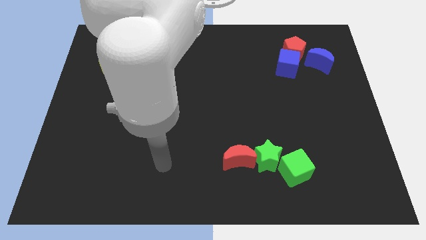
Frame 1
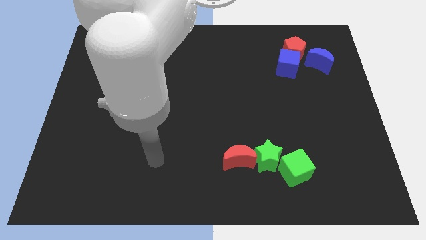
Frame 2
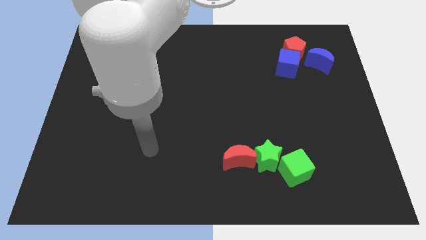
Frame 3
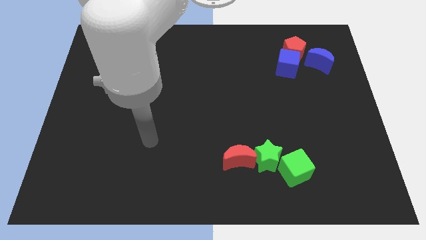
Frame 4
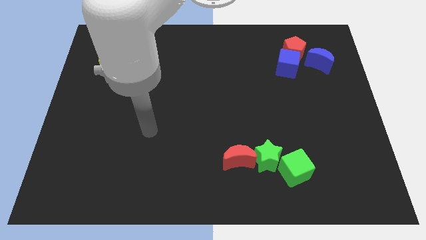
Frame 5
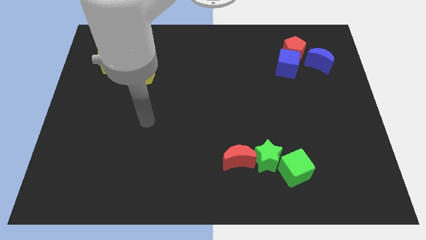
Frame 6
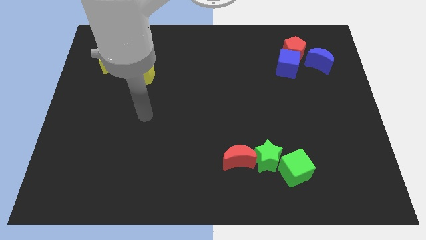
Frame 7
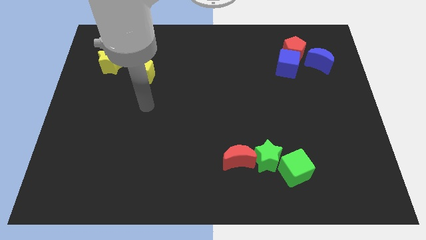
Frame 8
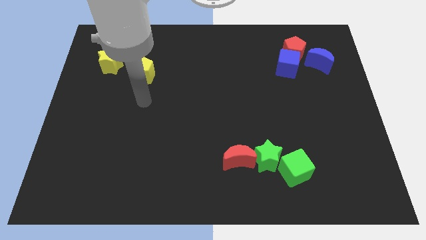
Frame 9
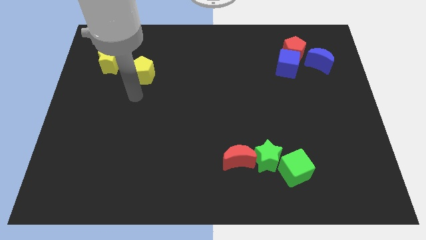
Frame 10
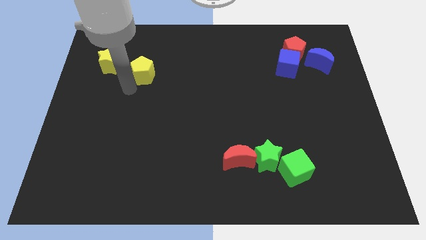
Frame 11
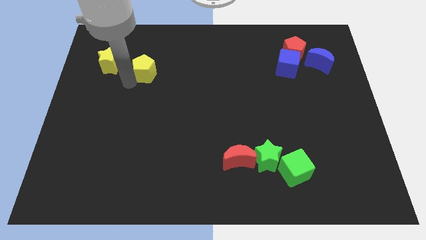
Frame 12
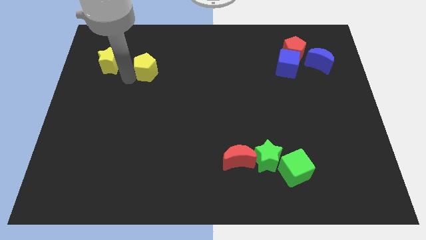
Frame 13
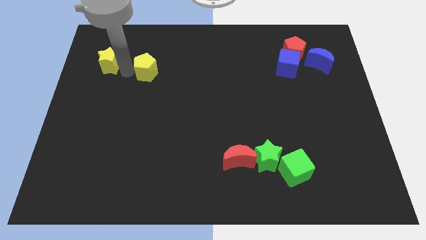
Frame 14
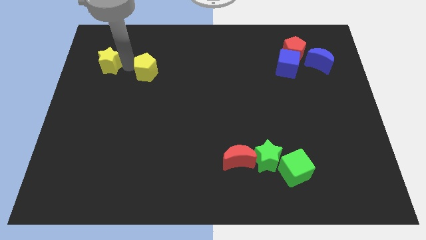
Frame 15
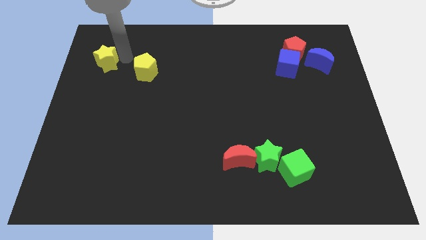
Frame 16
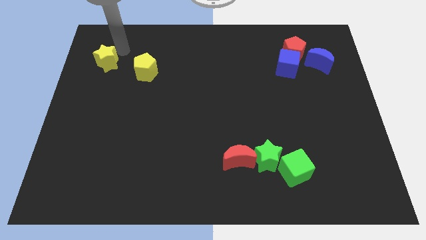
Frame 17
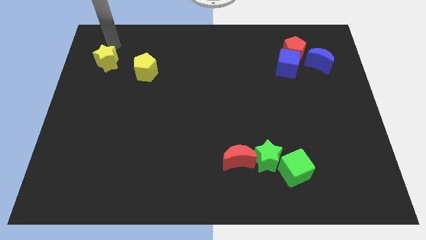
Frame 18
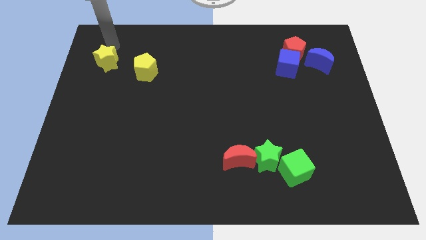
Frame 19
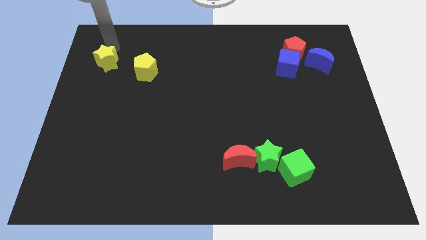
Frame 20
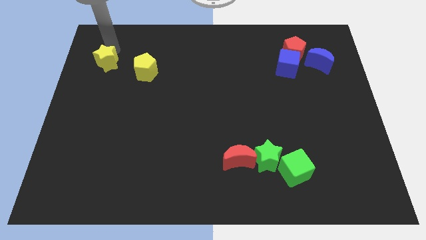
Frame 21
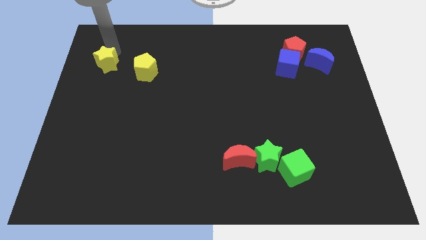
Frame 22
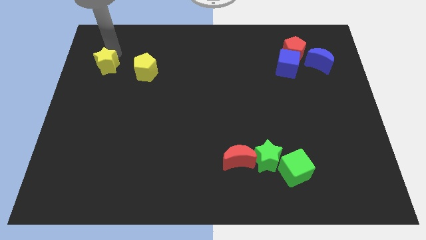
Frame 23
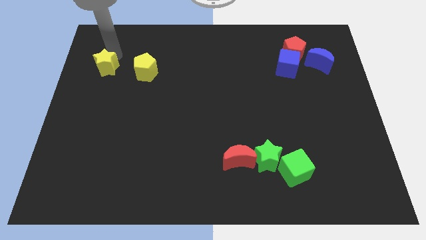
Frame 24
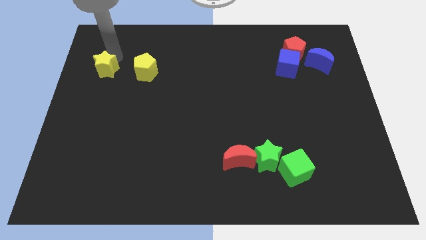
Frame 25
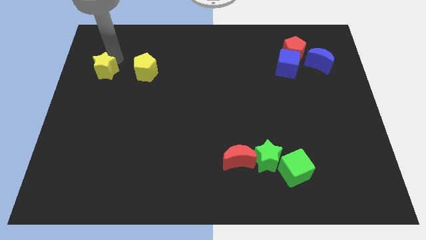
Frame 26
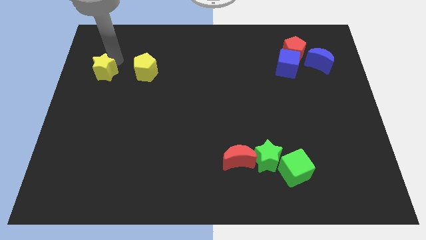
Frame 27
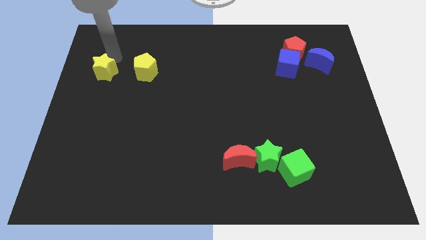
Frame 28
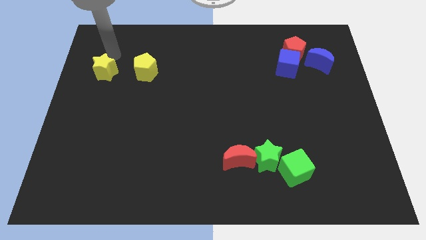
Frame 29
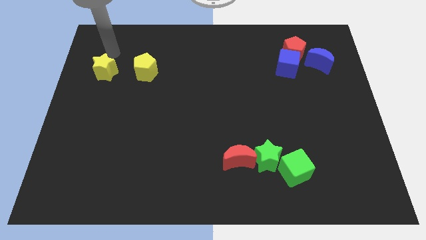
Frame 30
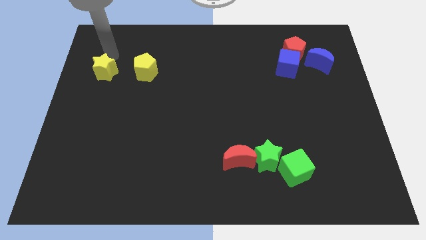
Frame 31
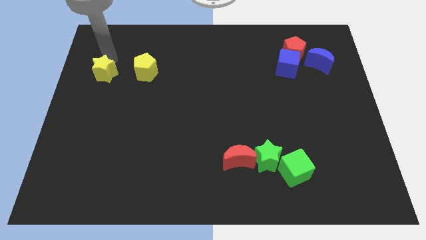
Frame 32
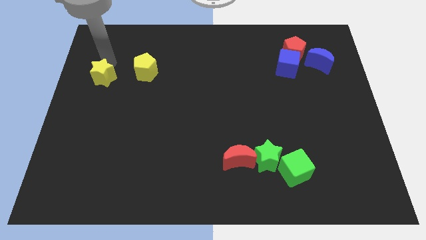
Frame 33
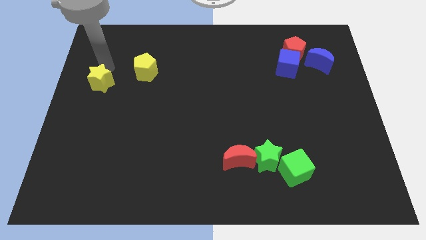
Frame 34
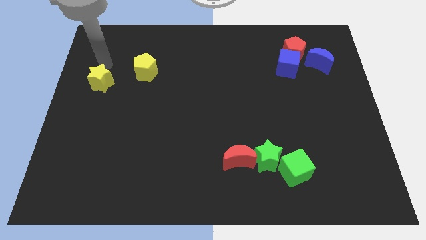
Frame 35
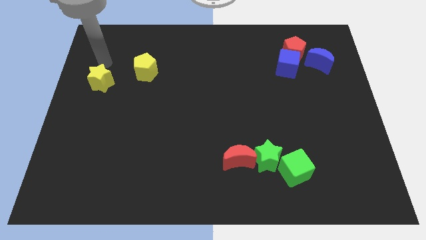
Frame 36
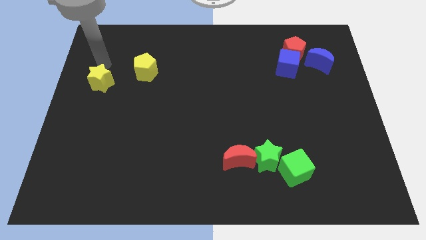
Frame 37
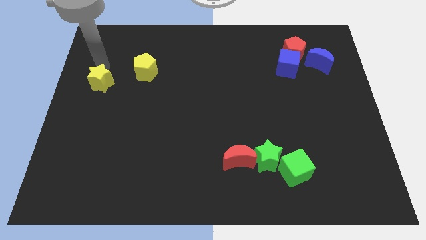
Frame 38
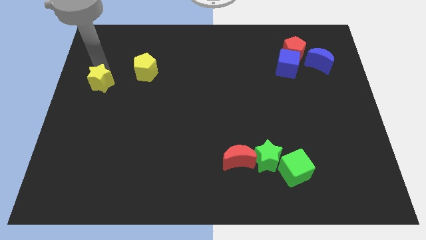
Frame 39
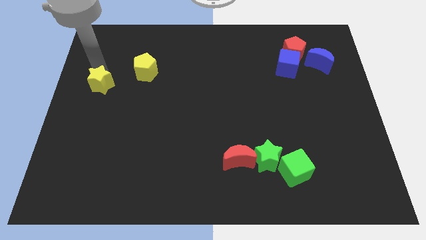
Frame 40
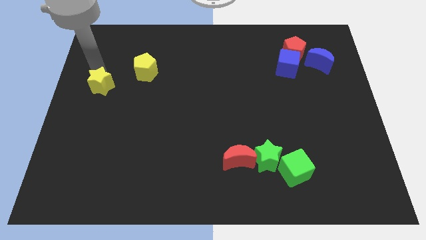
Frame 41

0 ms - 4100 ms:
slide the yellow star a little bit downwards

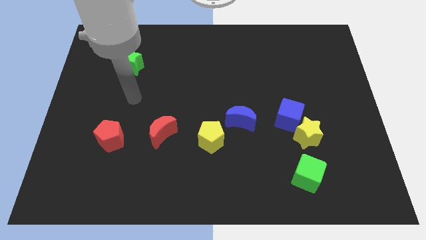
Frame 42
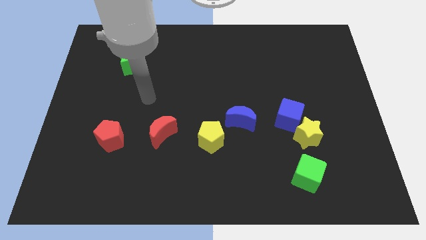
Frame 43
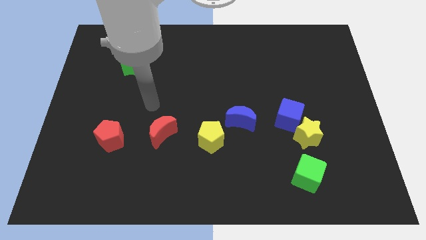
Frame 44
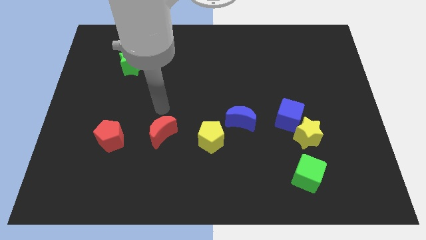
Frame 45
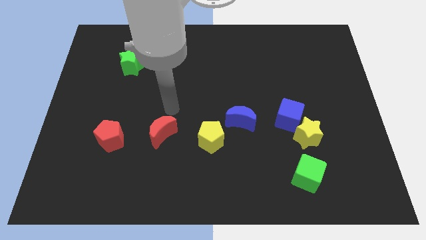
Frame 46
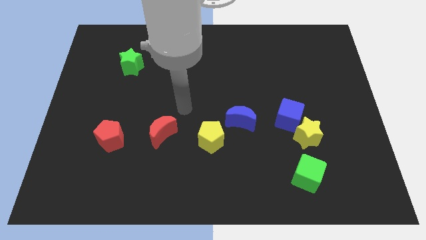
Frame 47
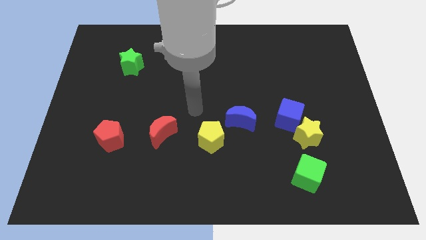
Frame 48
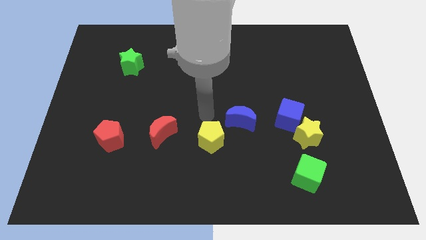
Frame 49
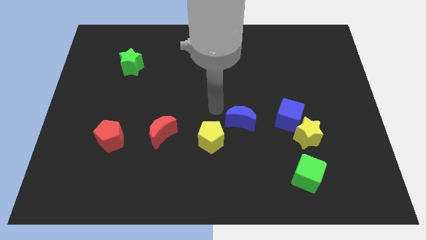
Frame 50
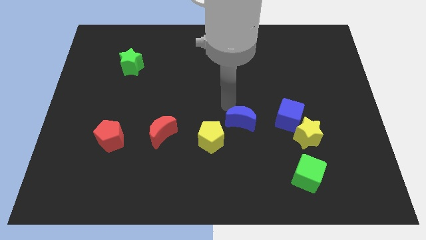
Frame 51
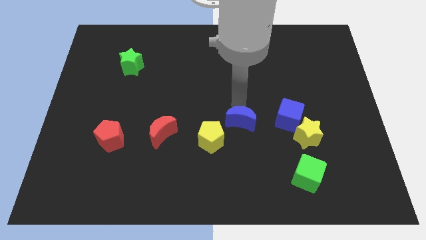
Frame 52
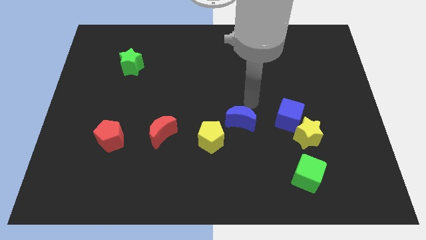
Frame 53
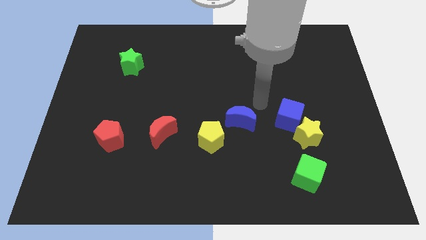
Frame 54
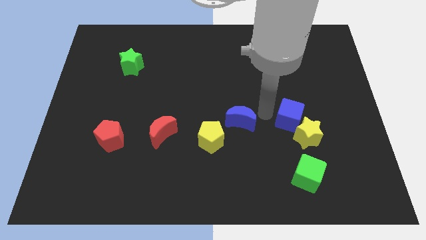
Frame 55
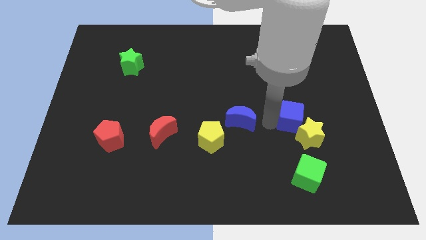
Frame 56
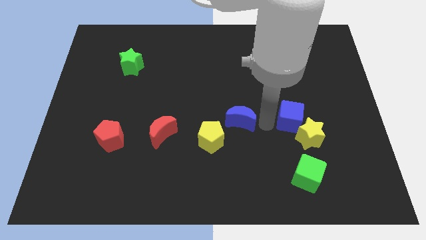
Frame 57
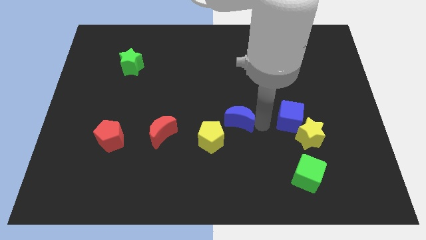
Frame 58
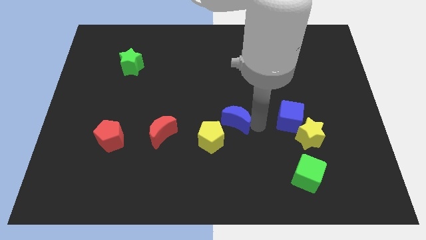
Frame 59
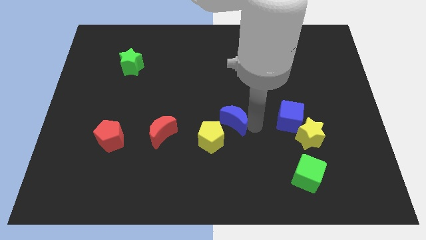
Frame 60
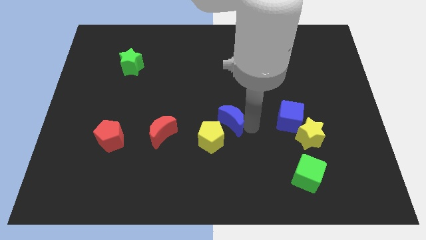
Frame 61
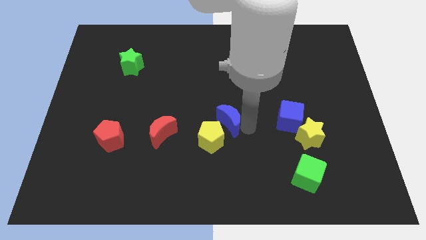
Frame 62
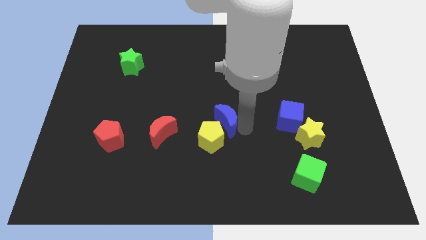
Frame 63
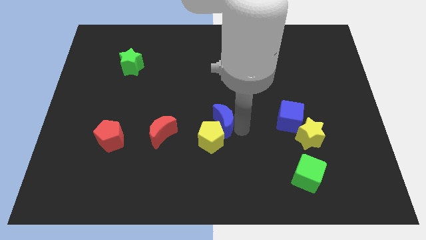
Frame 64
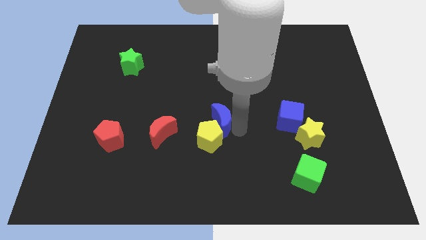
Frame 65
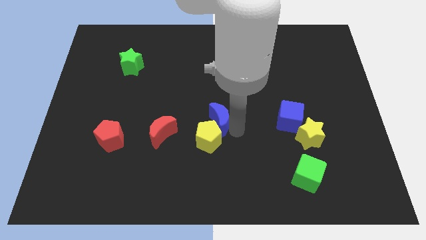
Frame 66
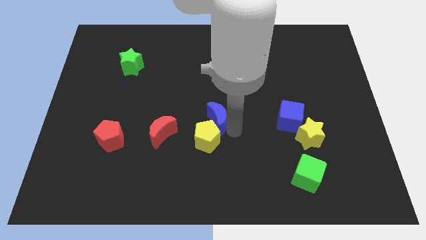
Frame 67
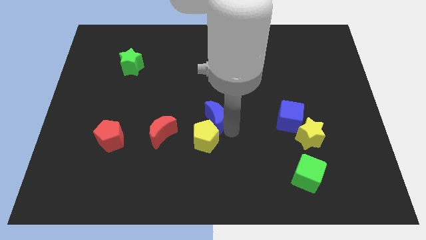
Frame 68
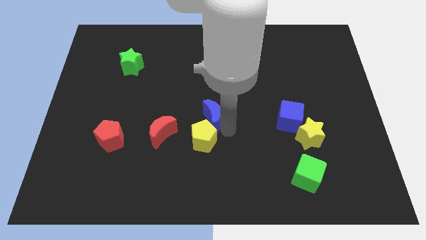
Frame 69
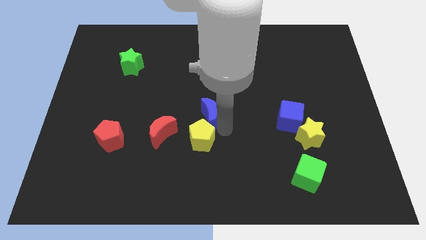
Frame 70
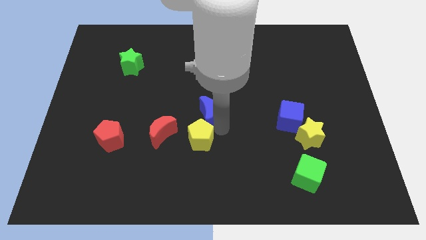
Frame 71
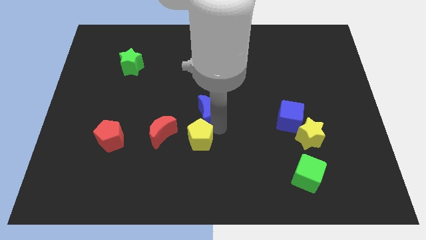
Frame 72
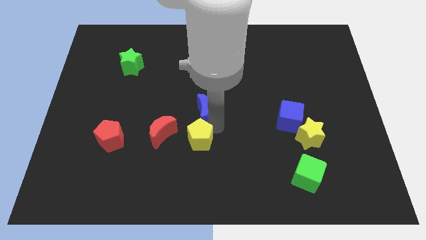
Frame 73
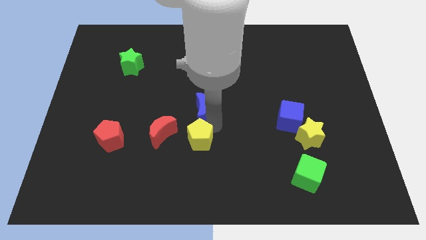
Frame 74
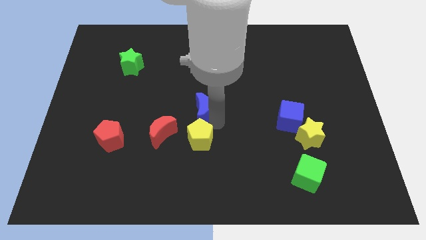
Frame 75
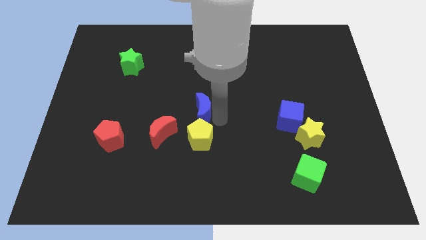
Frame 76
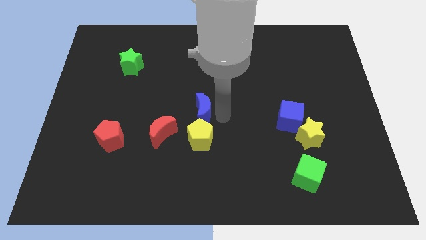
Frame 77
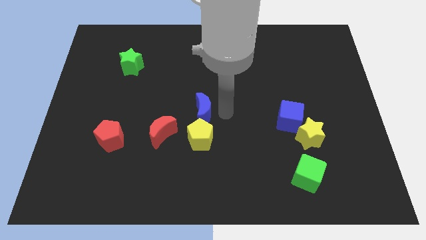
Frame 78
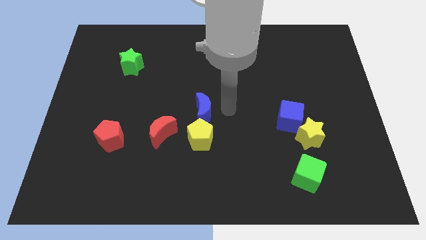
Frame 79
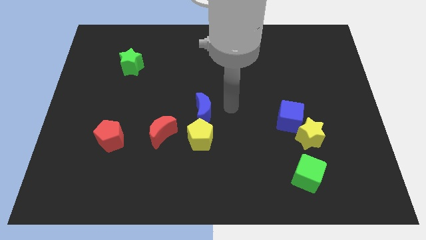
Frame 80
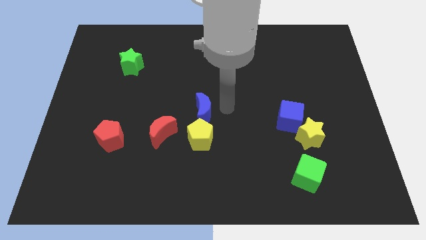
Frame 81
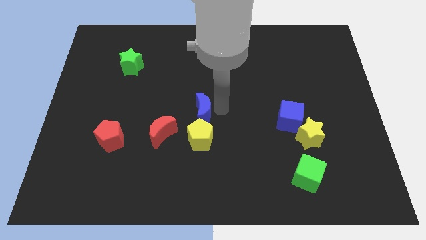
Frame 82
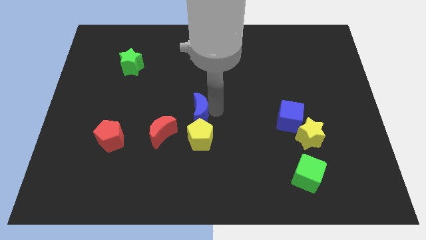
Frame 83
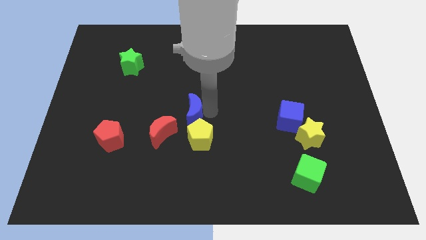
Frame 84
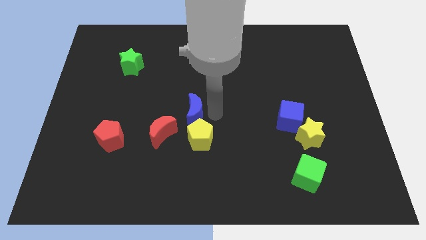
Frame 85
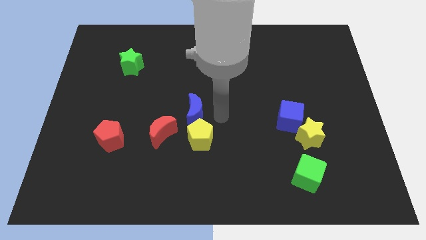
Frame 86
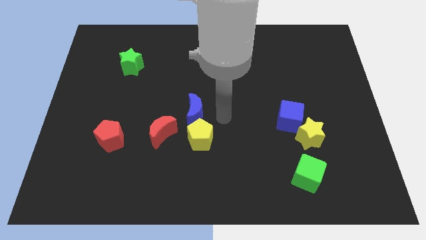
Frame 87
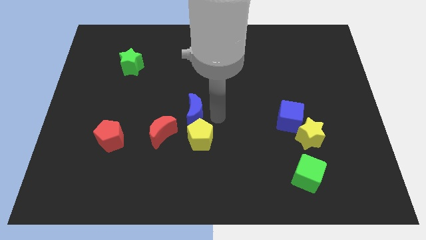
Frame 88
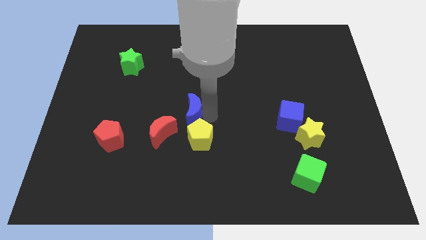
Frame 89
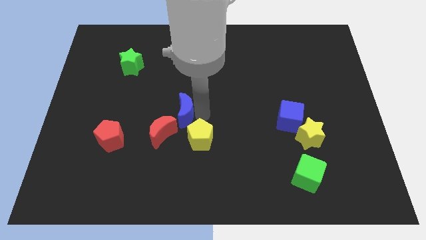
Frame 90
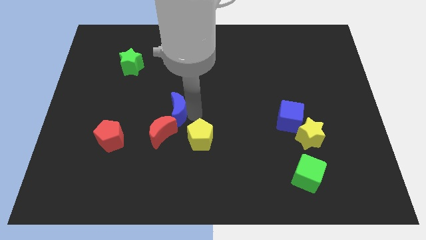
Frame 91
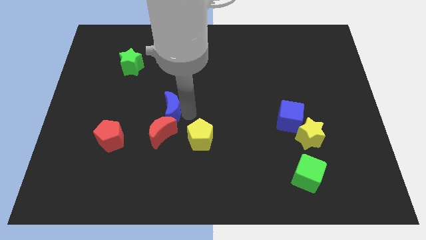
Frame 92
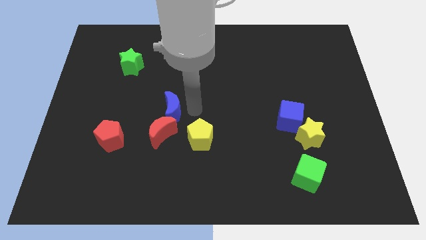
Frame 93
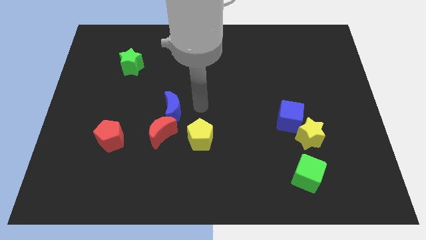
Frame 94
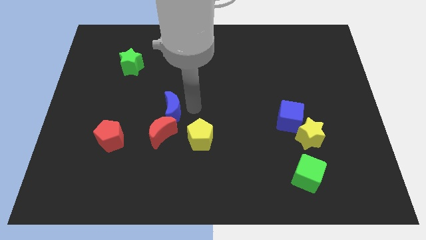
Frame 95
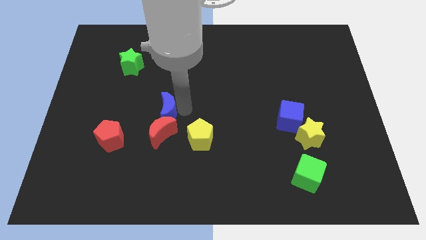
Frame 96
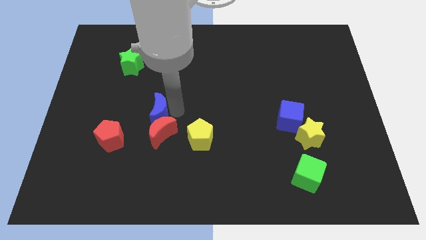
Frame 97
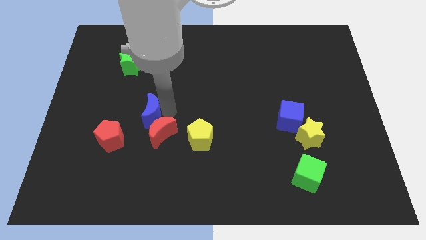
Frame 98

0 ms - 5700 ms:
move the blue moon left
